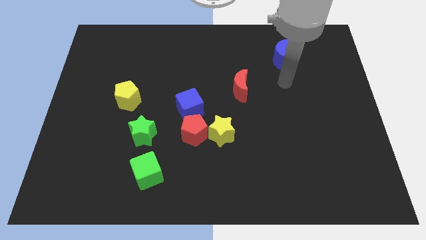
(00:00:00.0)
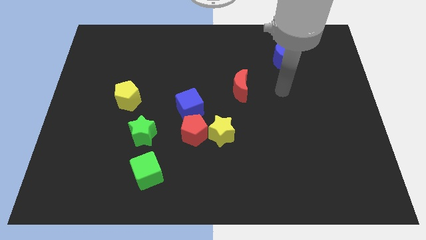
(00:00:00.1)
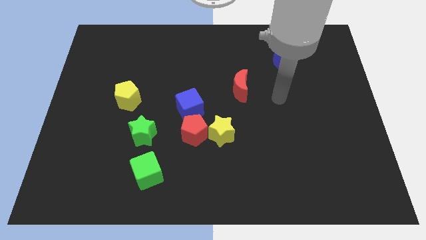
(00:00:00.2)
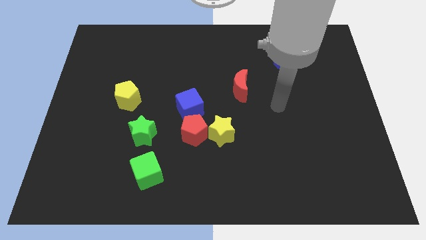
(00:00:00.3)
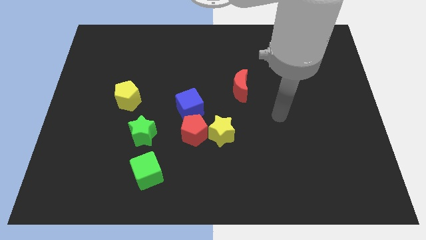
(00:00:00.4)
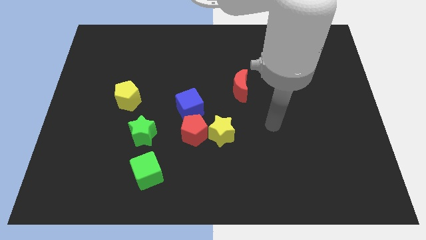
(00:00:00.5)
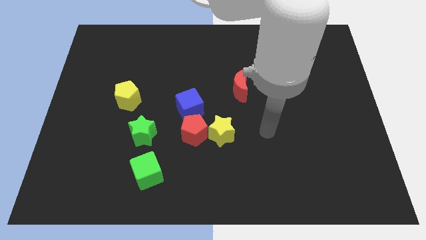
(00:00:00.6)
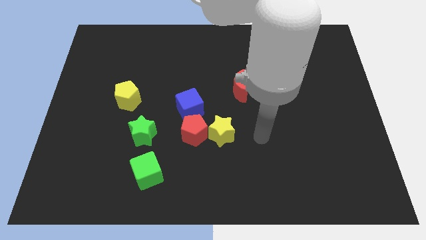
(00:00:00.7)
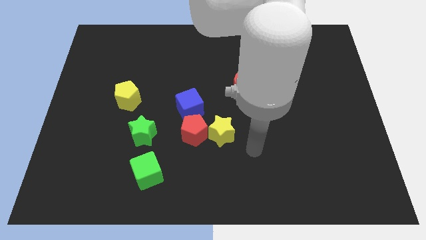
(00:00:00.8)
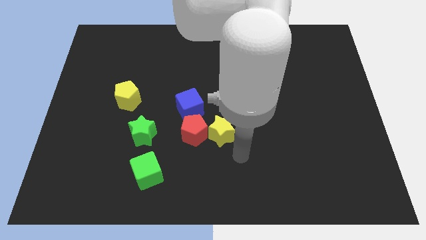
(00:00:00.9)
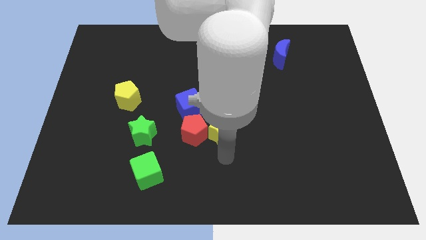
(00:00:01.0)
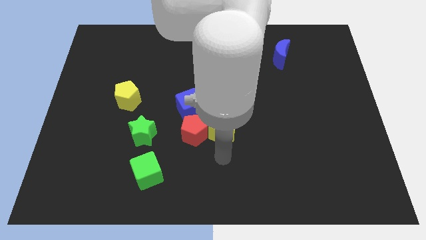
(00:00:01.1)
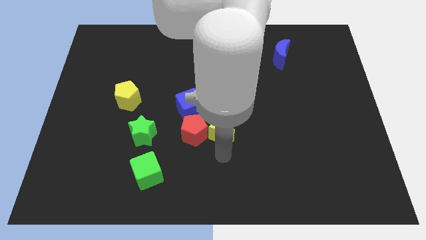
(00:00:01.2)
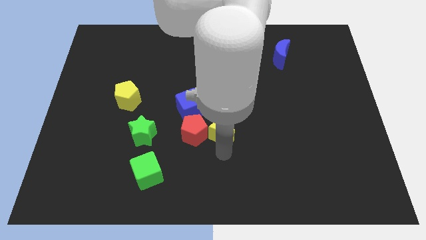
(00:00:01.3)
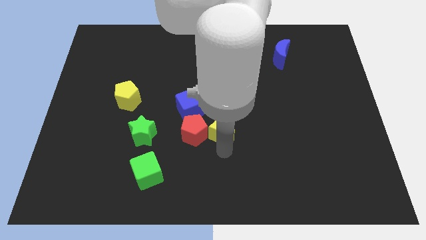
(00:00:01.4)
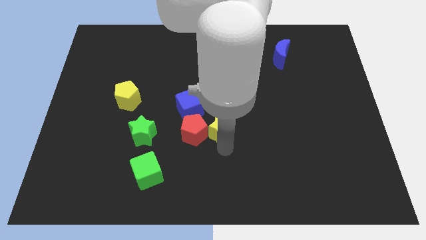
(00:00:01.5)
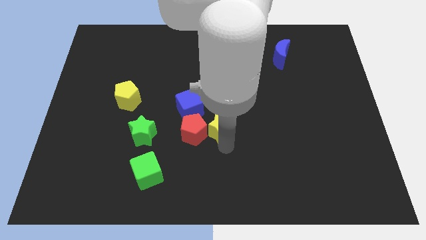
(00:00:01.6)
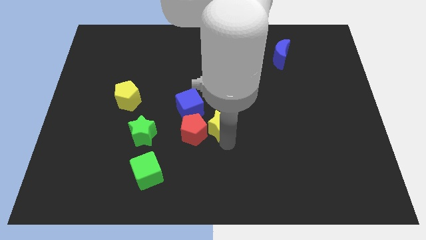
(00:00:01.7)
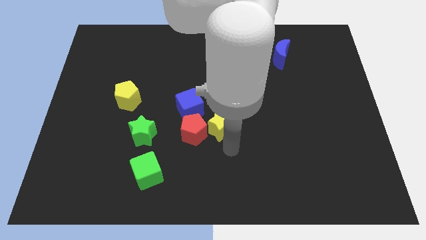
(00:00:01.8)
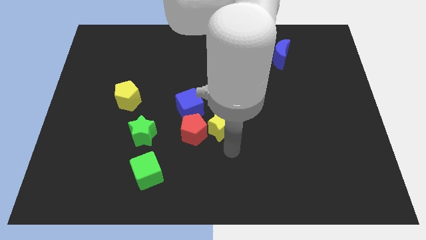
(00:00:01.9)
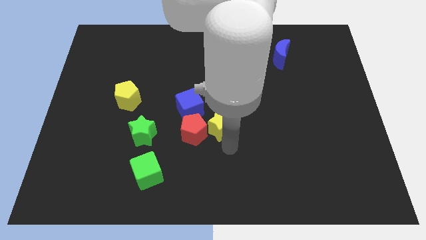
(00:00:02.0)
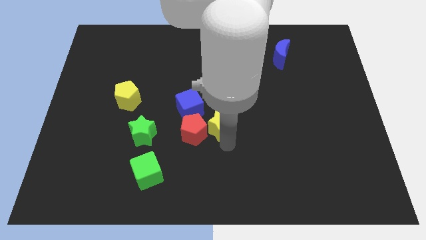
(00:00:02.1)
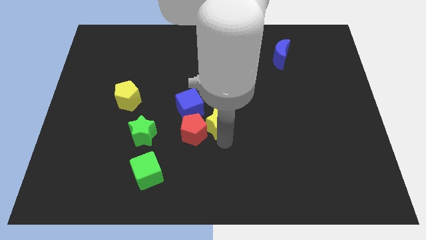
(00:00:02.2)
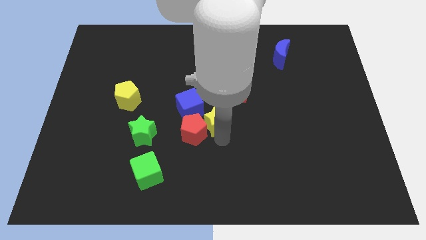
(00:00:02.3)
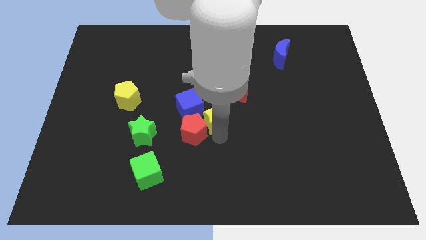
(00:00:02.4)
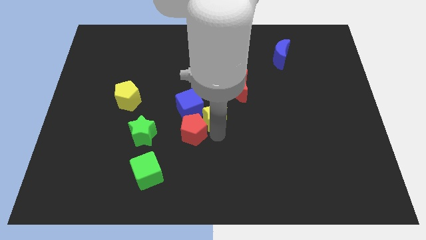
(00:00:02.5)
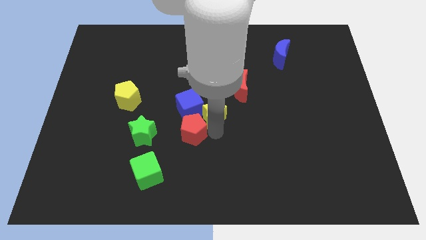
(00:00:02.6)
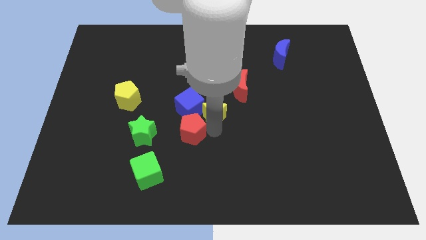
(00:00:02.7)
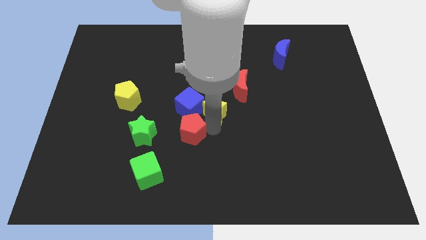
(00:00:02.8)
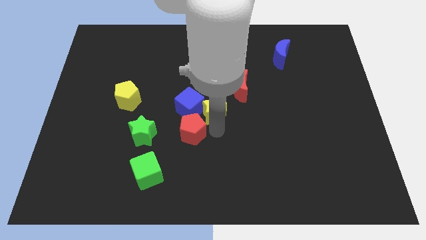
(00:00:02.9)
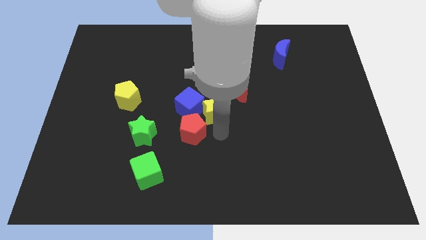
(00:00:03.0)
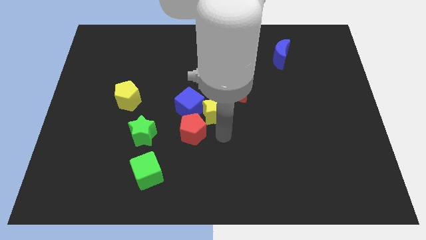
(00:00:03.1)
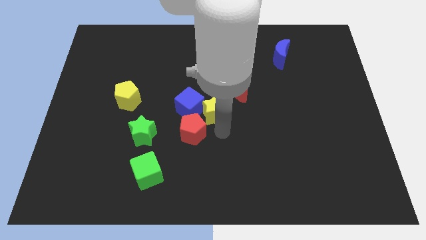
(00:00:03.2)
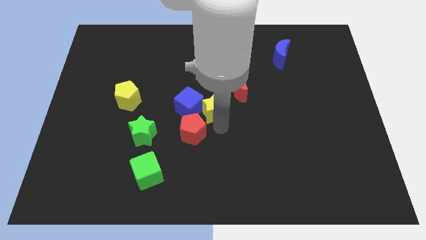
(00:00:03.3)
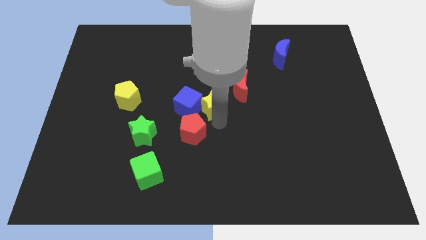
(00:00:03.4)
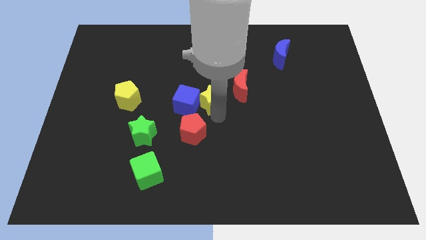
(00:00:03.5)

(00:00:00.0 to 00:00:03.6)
slide the yellow star up and left a little bit

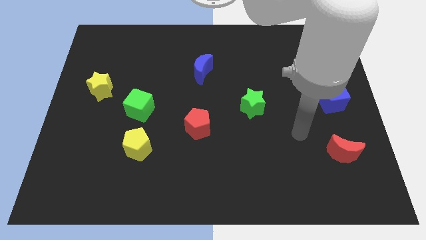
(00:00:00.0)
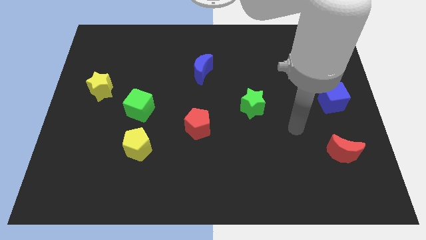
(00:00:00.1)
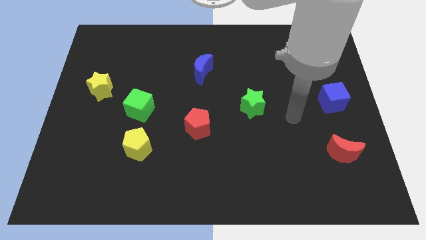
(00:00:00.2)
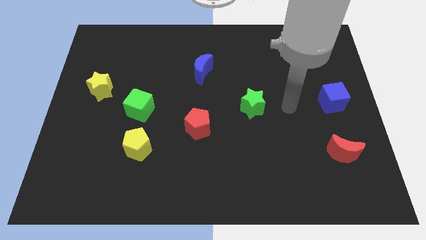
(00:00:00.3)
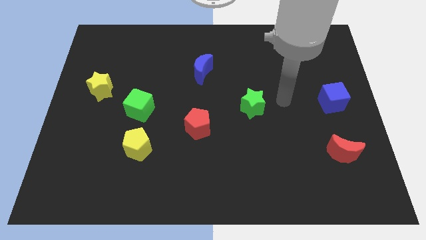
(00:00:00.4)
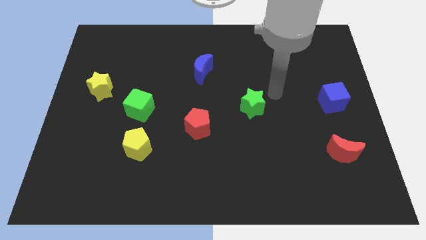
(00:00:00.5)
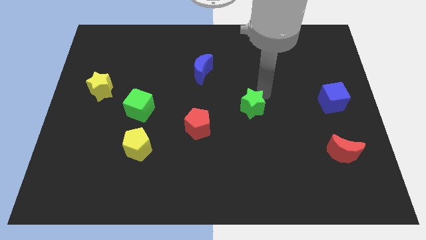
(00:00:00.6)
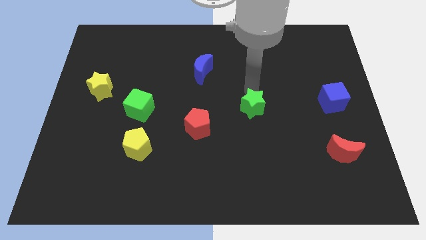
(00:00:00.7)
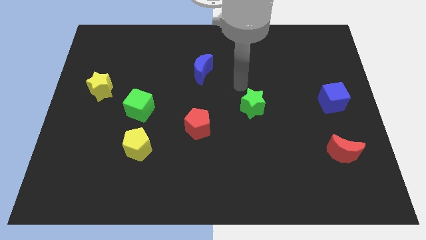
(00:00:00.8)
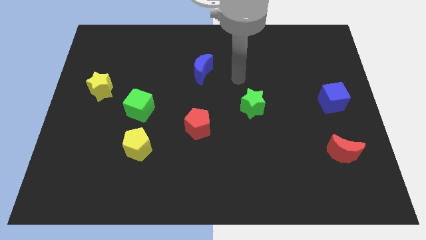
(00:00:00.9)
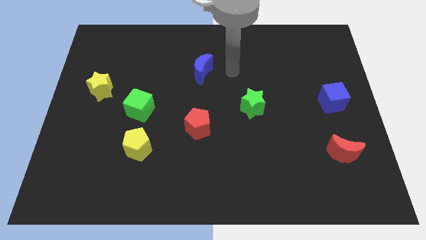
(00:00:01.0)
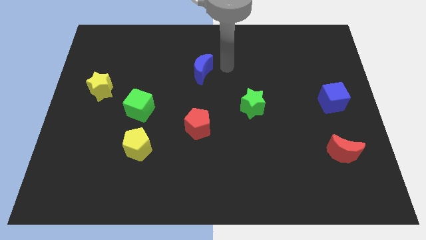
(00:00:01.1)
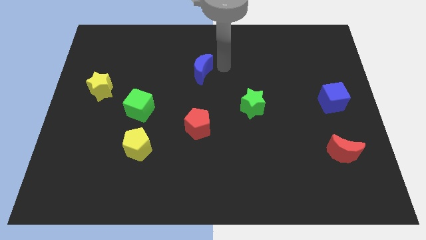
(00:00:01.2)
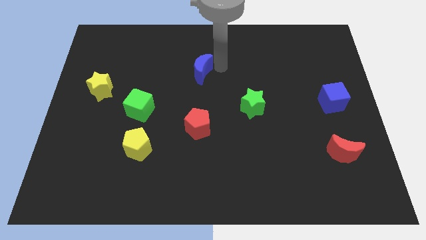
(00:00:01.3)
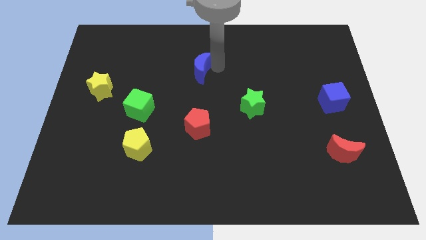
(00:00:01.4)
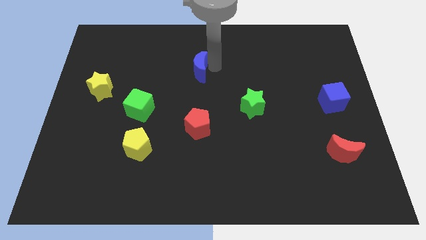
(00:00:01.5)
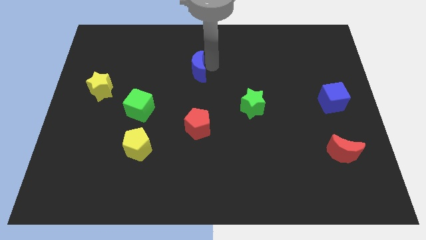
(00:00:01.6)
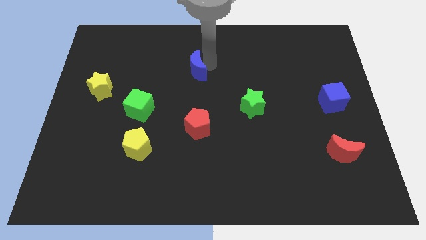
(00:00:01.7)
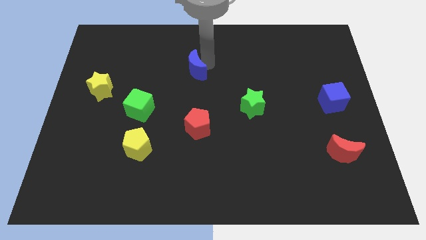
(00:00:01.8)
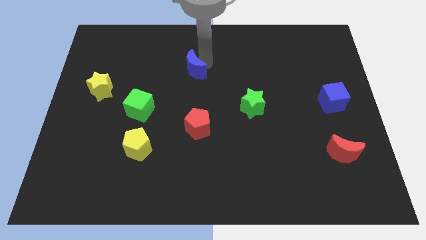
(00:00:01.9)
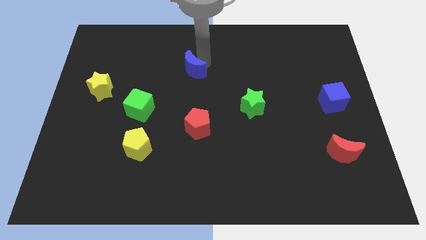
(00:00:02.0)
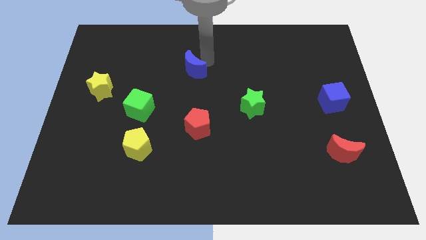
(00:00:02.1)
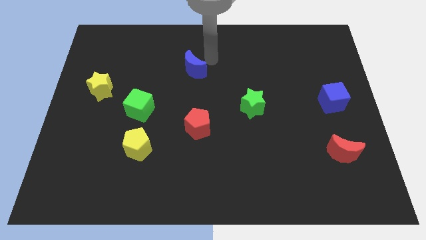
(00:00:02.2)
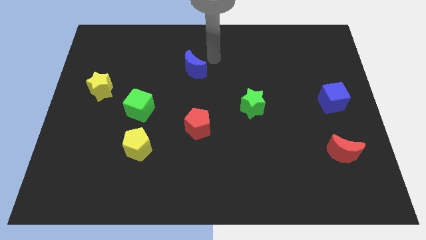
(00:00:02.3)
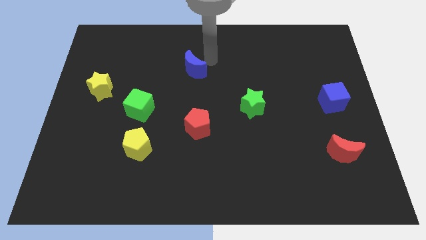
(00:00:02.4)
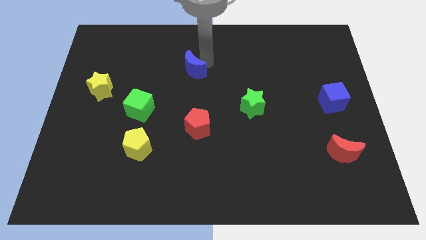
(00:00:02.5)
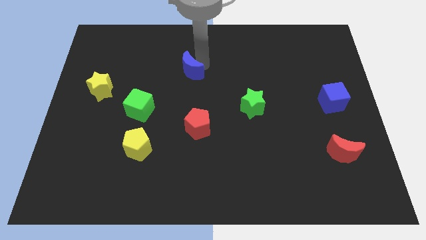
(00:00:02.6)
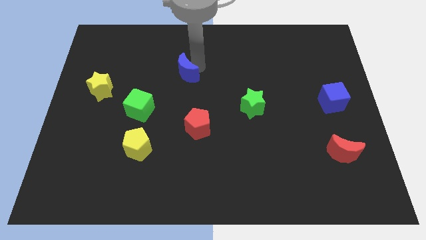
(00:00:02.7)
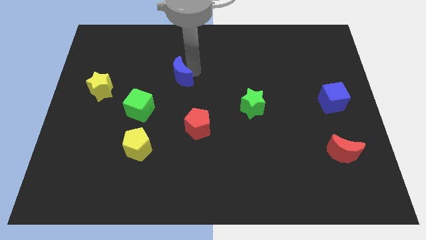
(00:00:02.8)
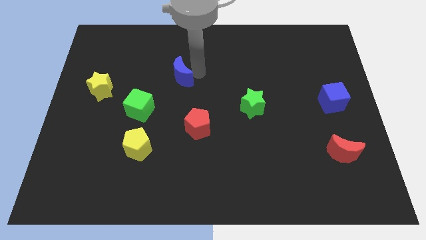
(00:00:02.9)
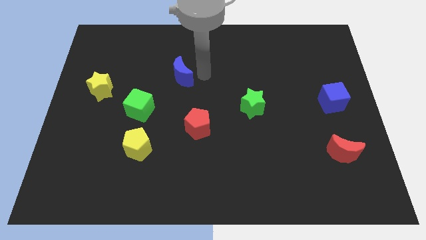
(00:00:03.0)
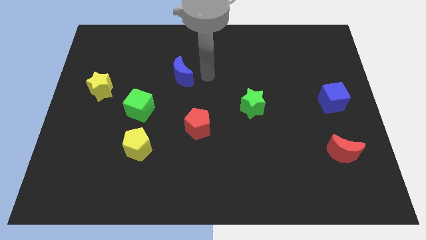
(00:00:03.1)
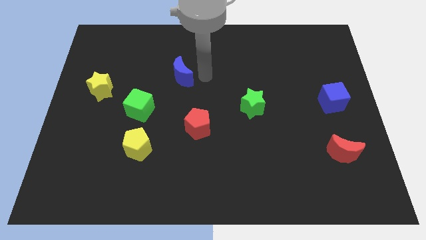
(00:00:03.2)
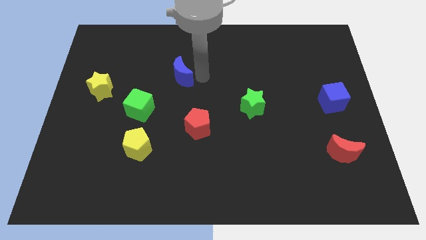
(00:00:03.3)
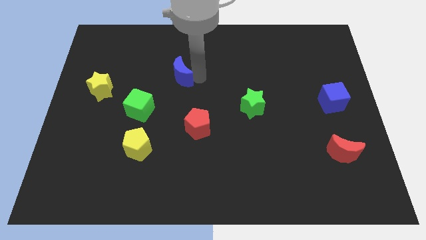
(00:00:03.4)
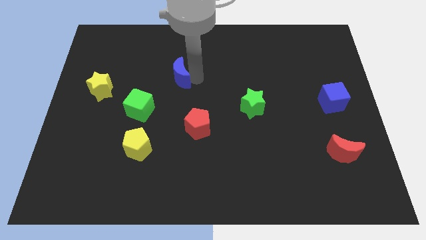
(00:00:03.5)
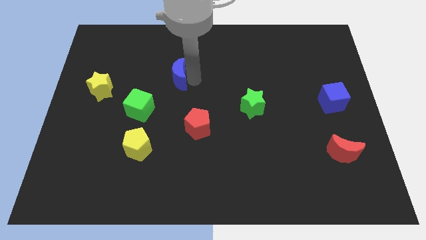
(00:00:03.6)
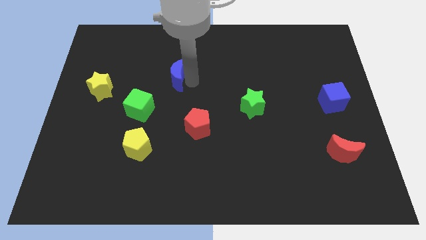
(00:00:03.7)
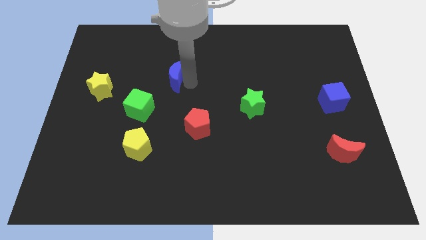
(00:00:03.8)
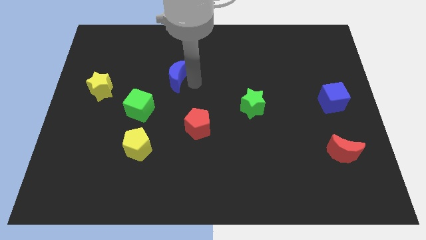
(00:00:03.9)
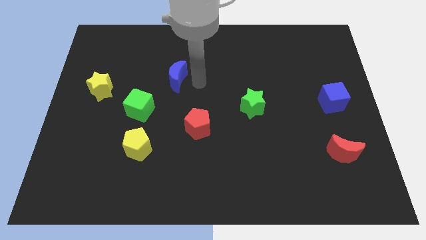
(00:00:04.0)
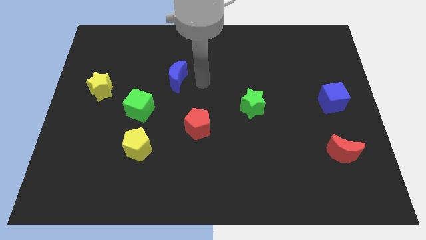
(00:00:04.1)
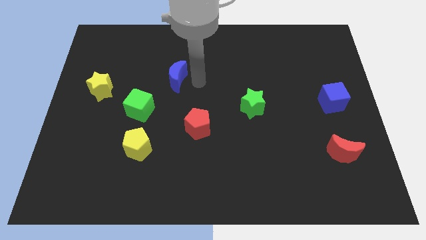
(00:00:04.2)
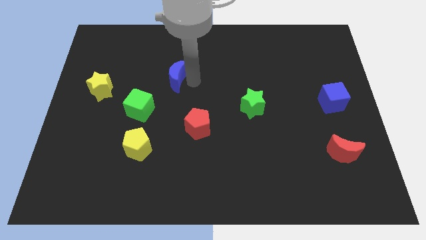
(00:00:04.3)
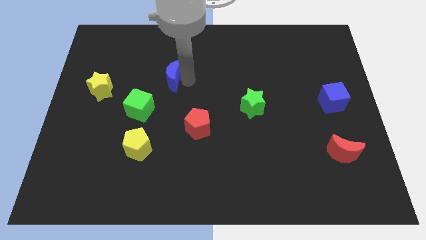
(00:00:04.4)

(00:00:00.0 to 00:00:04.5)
slightly move the blue moon to the left

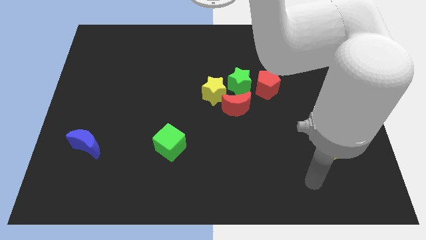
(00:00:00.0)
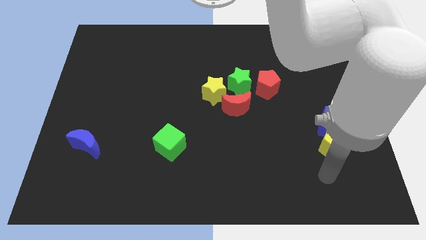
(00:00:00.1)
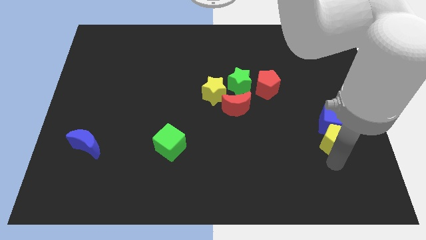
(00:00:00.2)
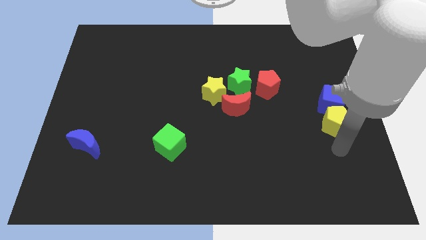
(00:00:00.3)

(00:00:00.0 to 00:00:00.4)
move the blue cube somewhat upwards
